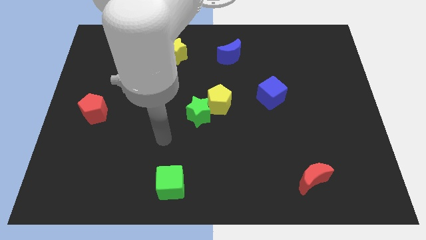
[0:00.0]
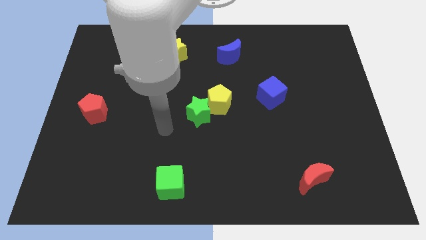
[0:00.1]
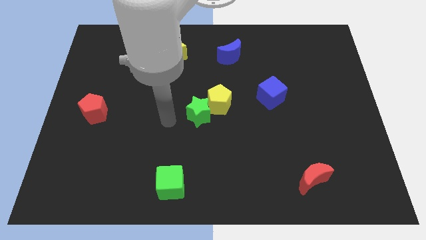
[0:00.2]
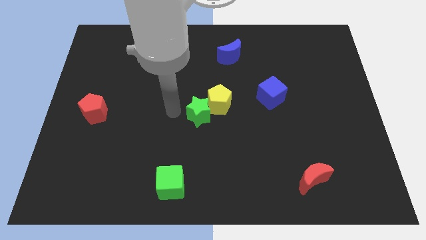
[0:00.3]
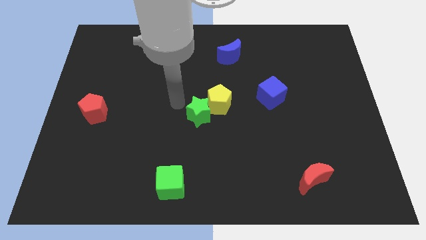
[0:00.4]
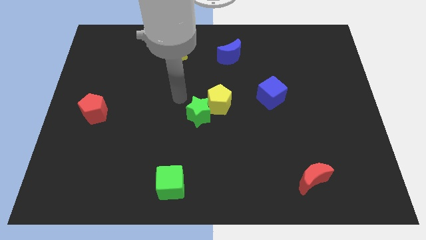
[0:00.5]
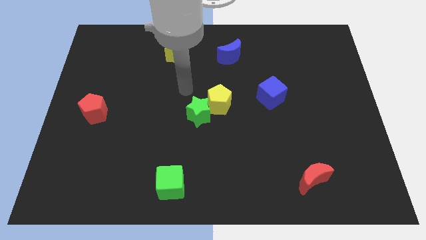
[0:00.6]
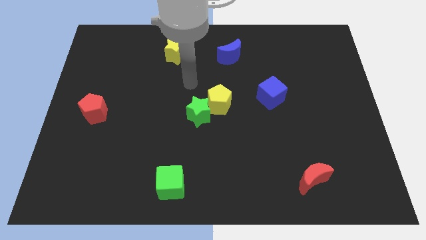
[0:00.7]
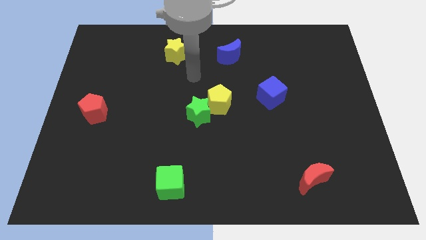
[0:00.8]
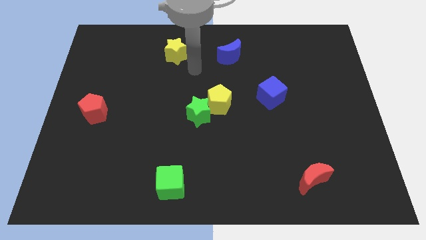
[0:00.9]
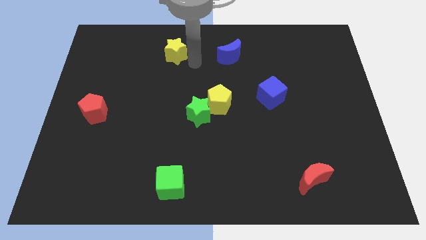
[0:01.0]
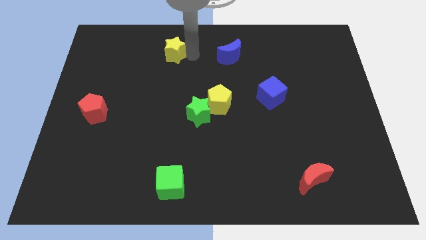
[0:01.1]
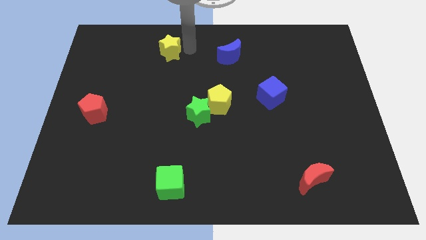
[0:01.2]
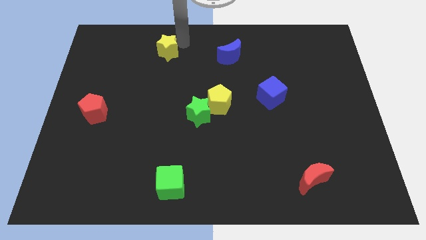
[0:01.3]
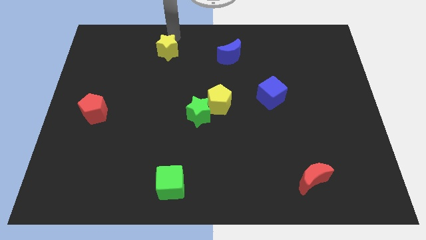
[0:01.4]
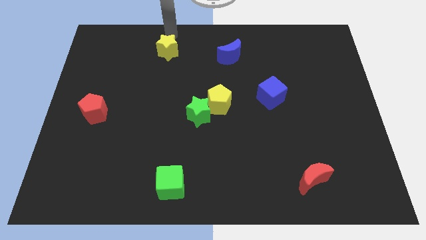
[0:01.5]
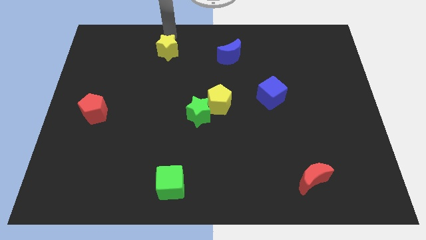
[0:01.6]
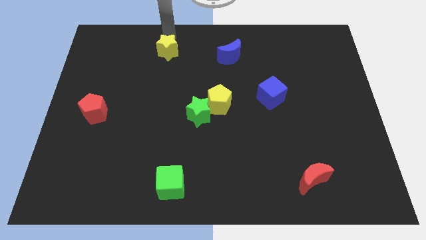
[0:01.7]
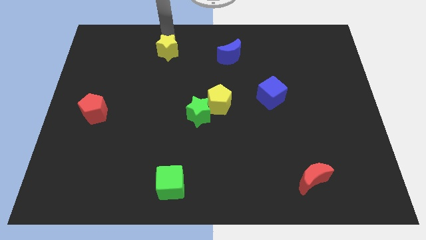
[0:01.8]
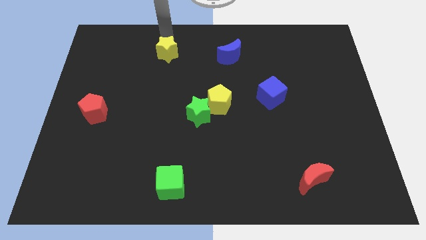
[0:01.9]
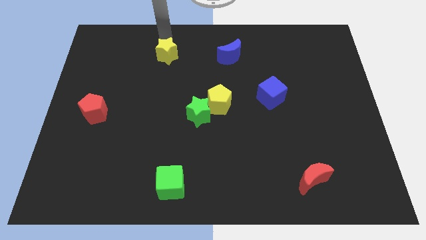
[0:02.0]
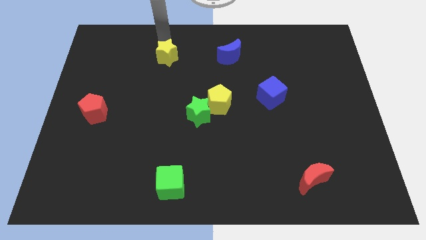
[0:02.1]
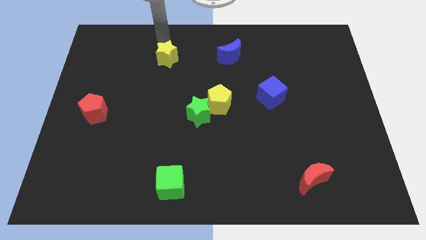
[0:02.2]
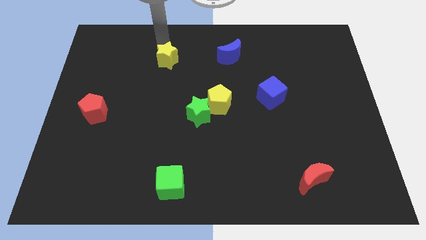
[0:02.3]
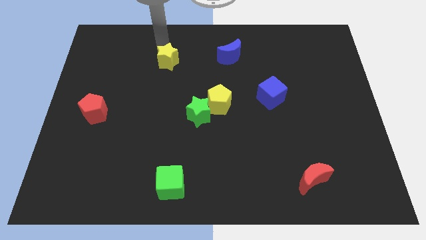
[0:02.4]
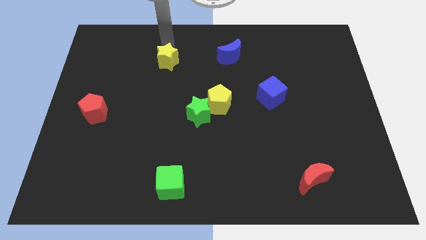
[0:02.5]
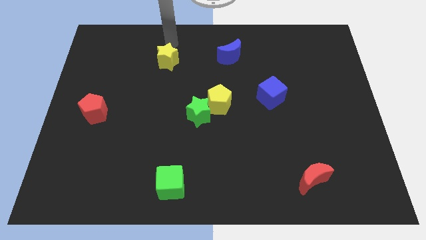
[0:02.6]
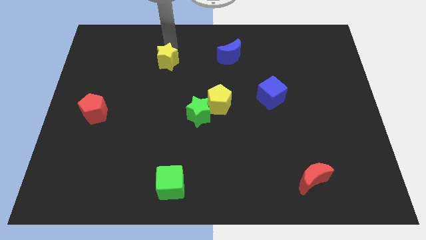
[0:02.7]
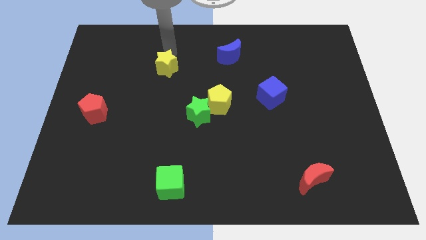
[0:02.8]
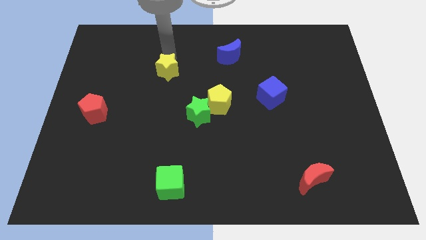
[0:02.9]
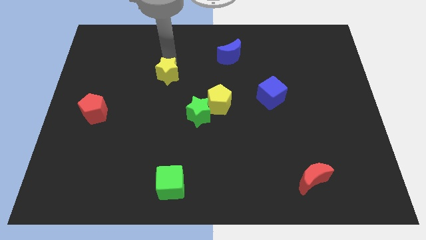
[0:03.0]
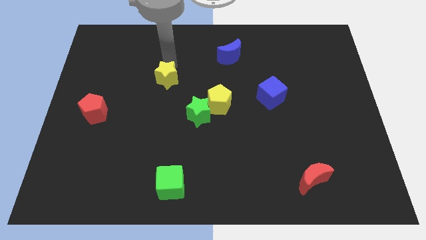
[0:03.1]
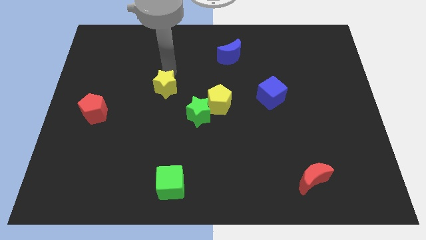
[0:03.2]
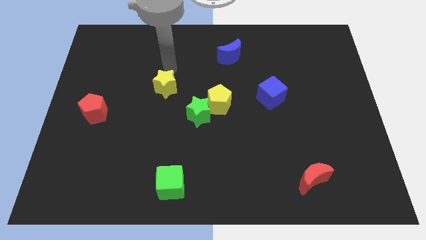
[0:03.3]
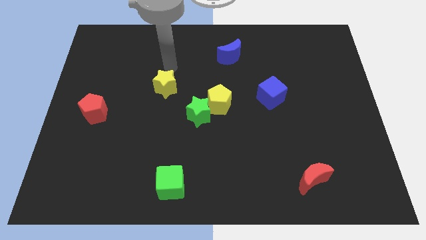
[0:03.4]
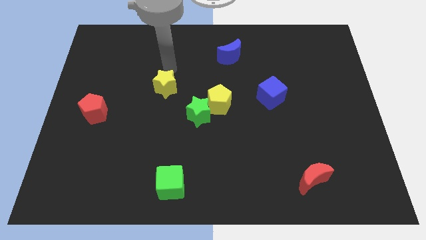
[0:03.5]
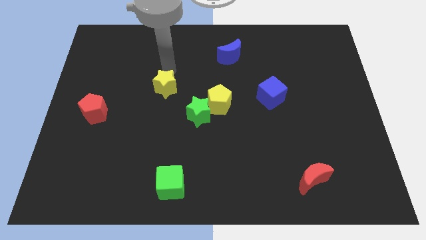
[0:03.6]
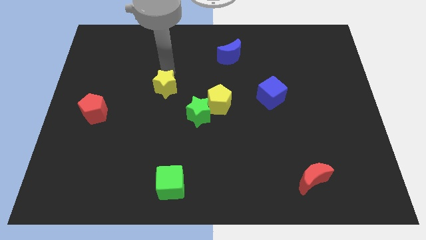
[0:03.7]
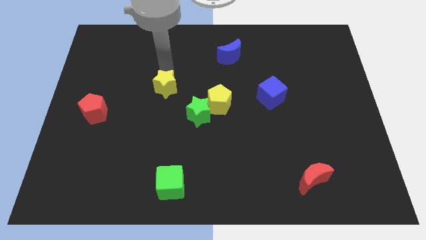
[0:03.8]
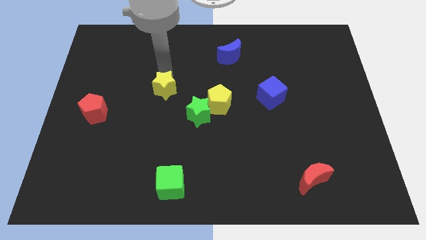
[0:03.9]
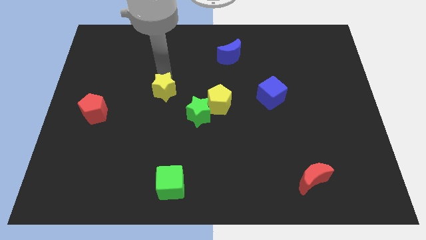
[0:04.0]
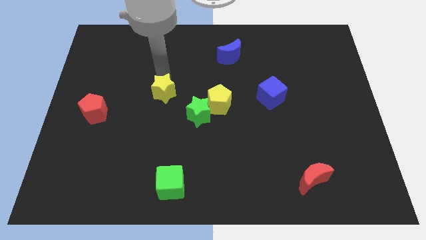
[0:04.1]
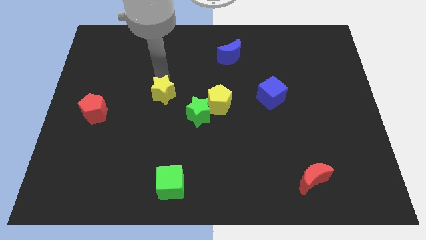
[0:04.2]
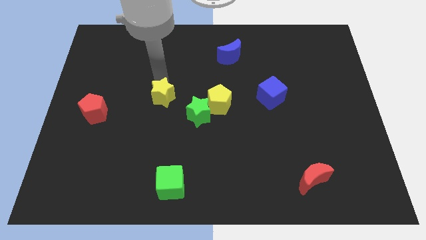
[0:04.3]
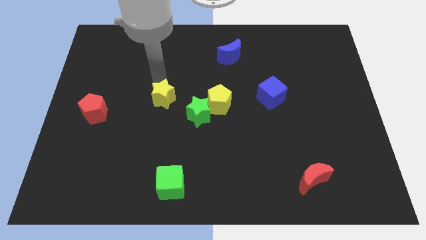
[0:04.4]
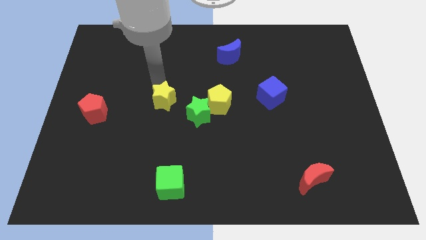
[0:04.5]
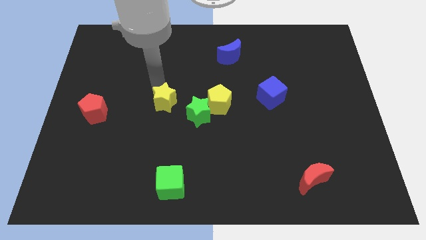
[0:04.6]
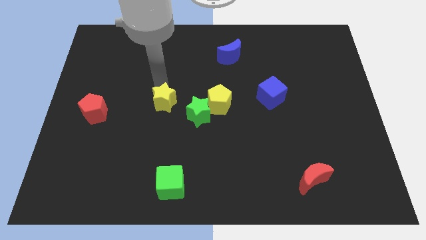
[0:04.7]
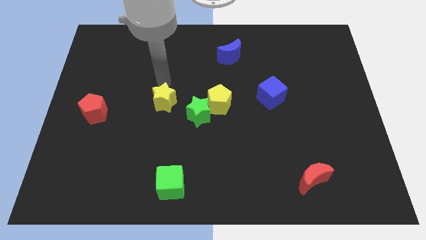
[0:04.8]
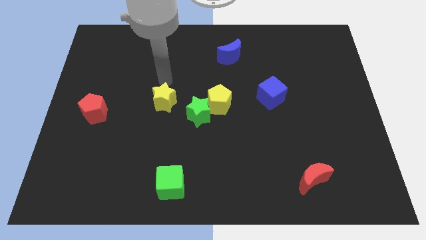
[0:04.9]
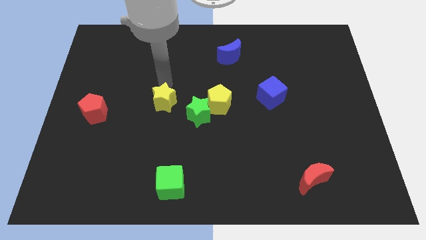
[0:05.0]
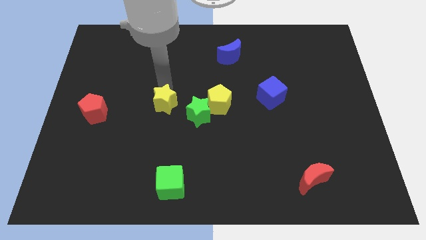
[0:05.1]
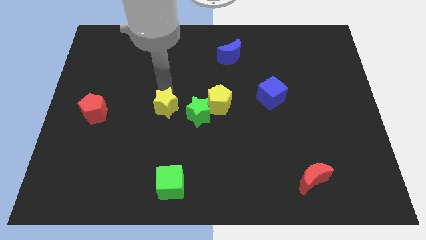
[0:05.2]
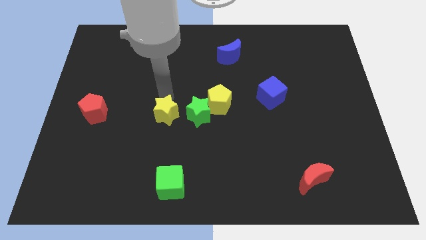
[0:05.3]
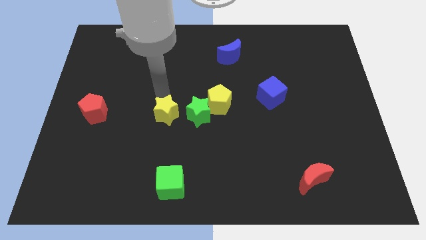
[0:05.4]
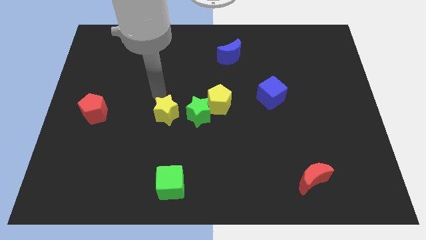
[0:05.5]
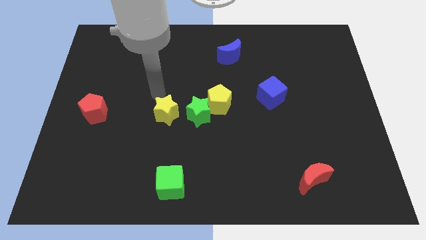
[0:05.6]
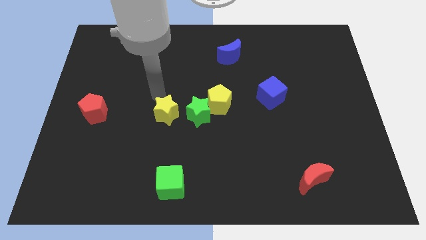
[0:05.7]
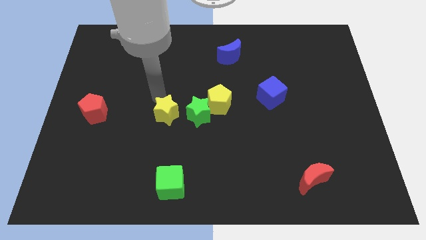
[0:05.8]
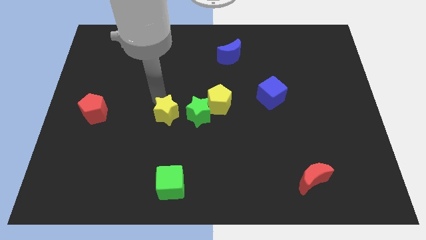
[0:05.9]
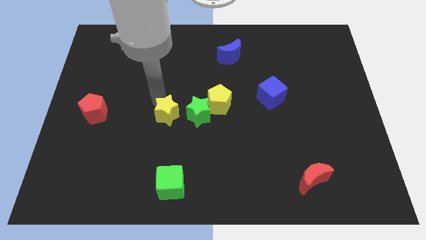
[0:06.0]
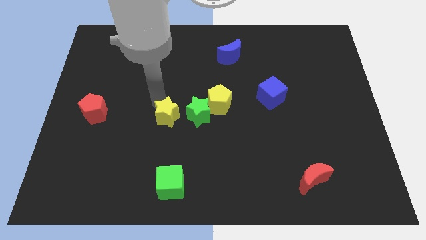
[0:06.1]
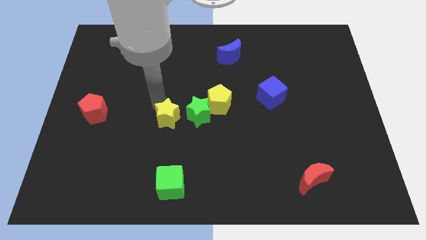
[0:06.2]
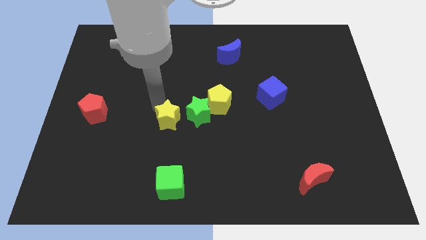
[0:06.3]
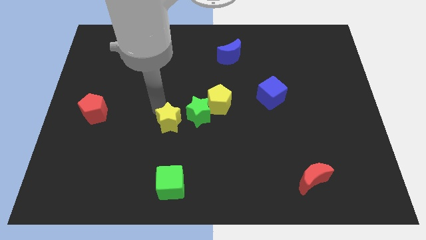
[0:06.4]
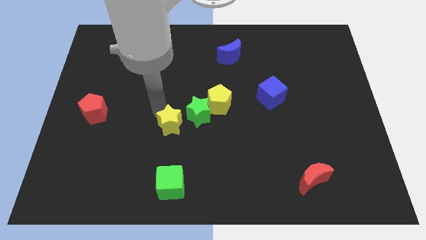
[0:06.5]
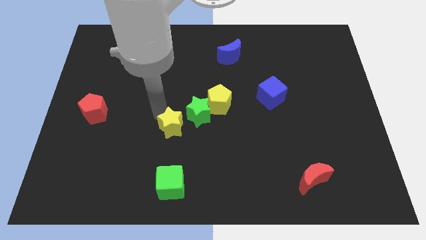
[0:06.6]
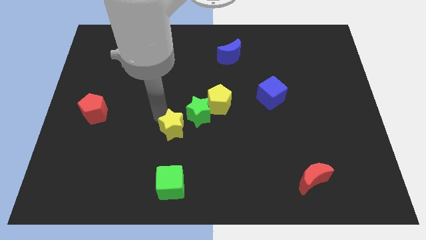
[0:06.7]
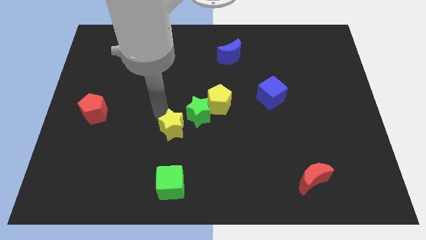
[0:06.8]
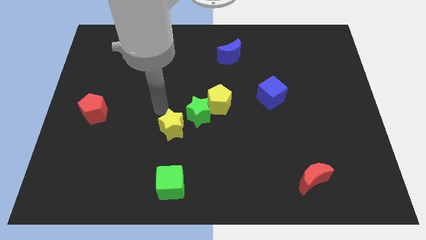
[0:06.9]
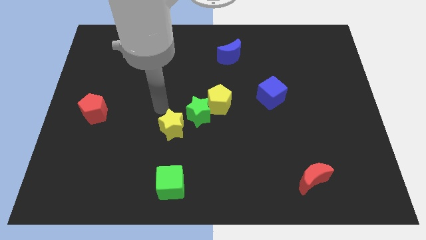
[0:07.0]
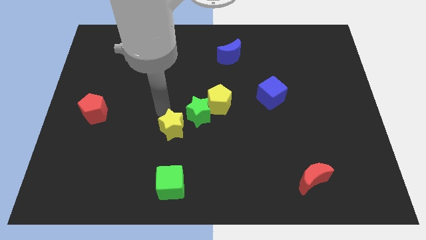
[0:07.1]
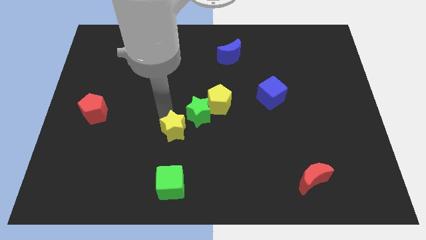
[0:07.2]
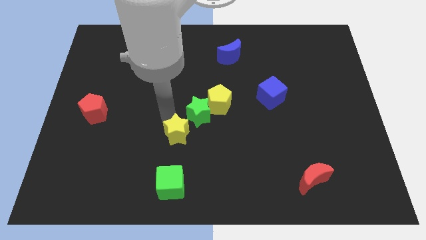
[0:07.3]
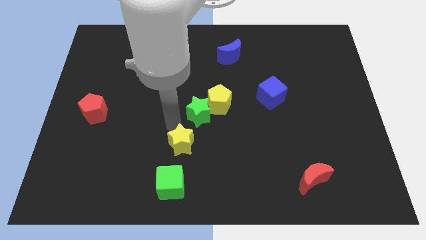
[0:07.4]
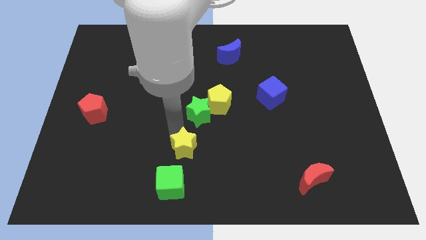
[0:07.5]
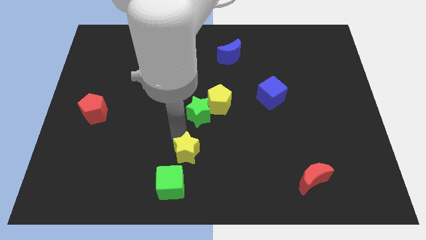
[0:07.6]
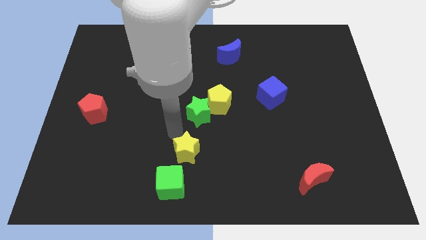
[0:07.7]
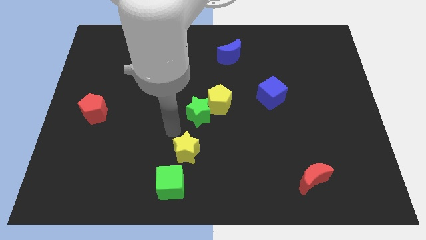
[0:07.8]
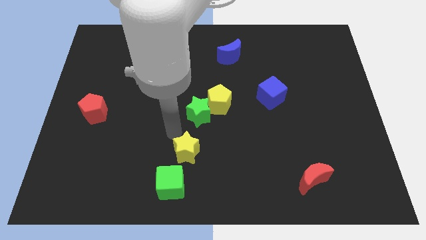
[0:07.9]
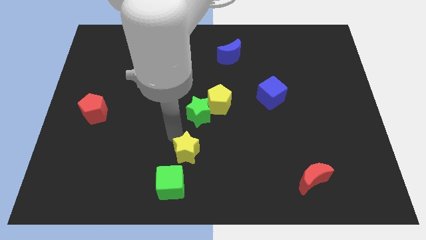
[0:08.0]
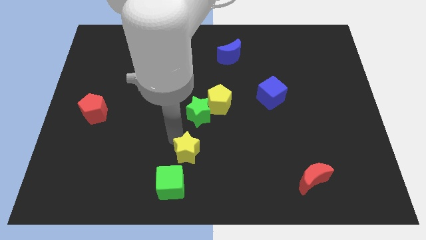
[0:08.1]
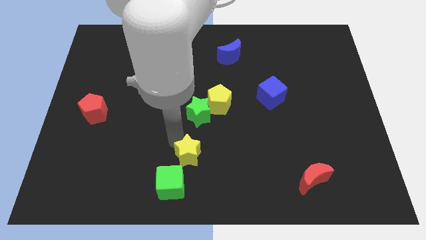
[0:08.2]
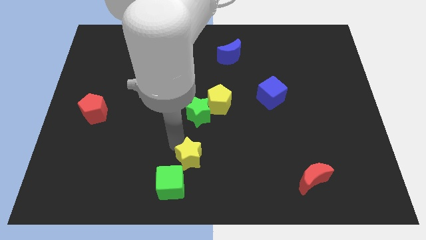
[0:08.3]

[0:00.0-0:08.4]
slide the yellow star to the bottom
